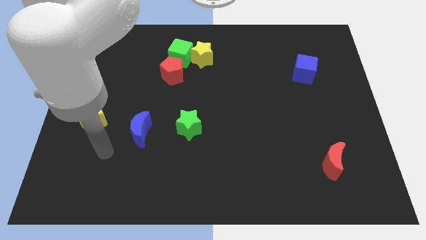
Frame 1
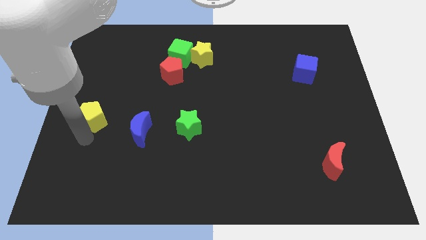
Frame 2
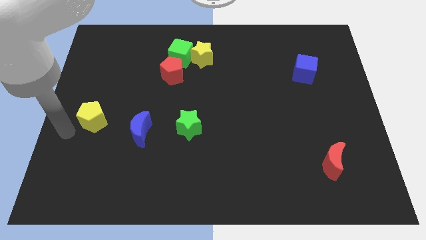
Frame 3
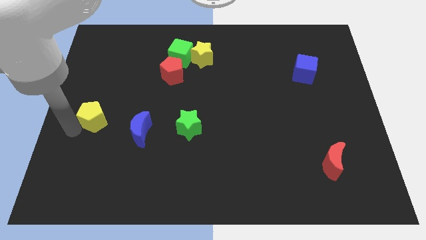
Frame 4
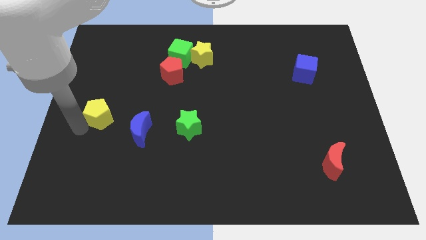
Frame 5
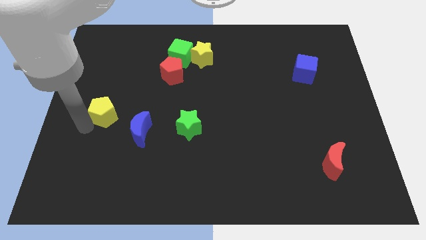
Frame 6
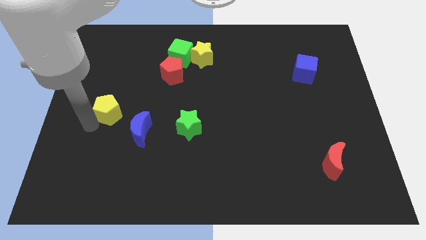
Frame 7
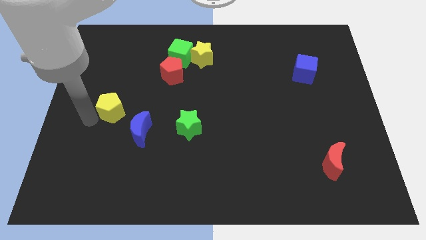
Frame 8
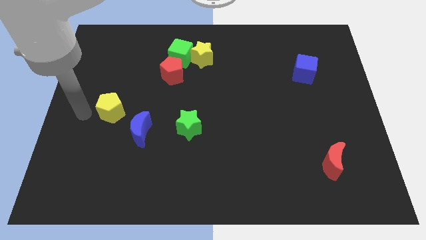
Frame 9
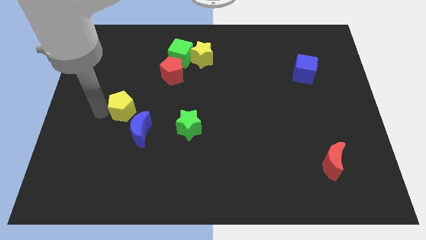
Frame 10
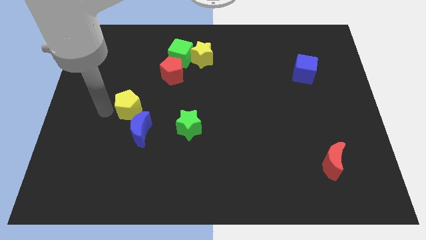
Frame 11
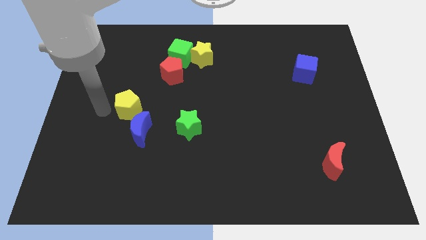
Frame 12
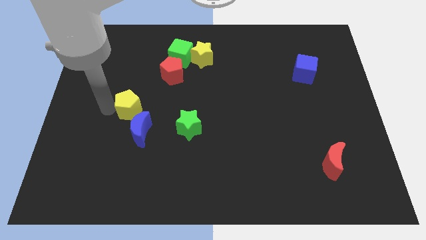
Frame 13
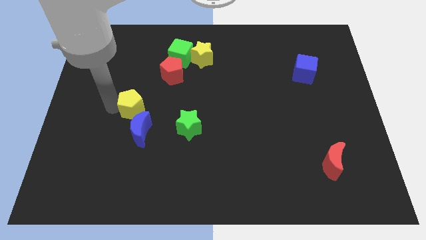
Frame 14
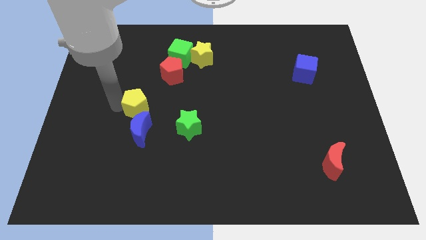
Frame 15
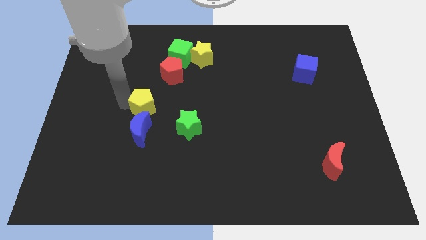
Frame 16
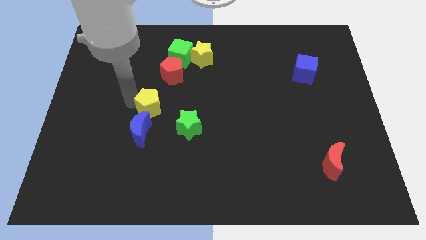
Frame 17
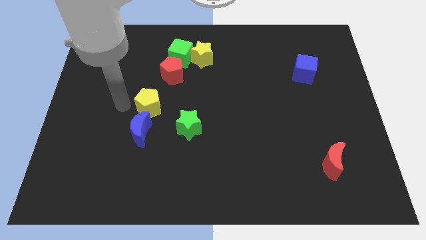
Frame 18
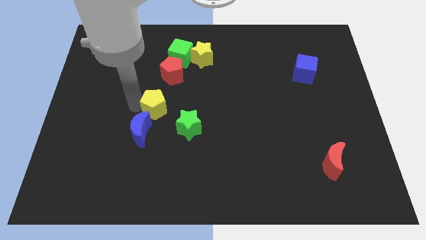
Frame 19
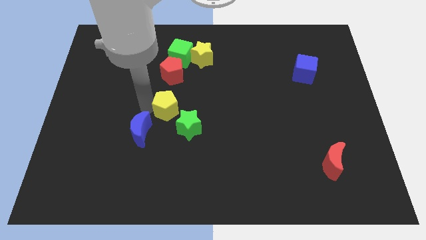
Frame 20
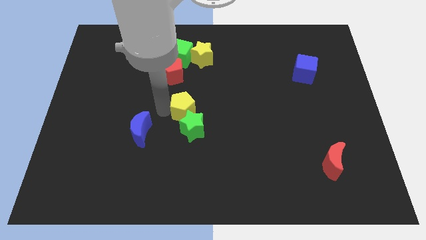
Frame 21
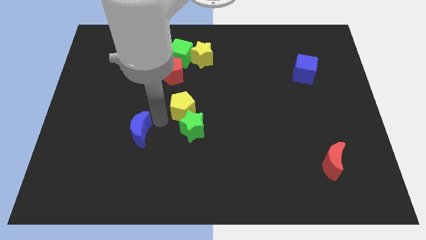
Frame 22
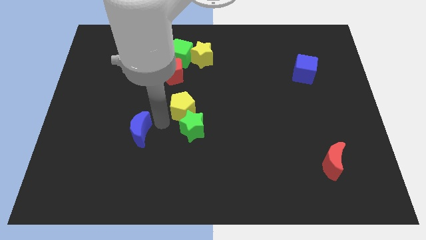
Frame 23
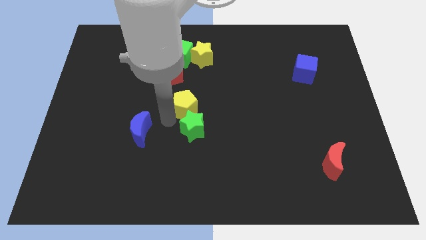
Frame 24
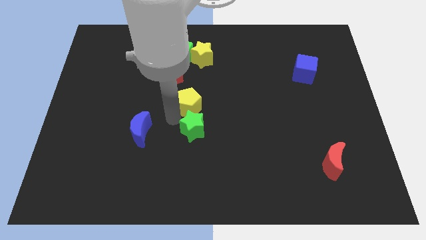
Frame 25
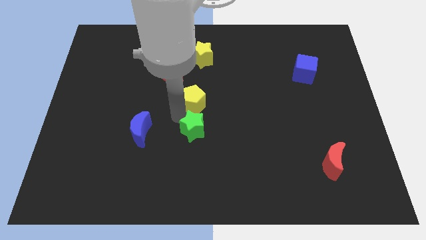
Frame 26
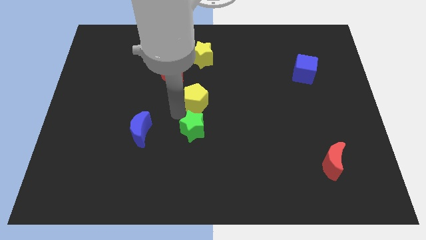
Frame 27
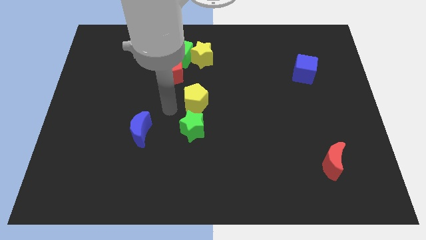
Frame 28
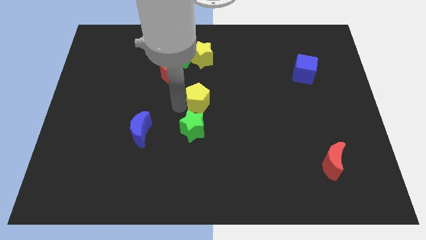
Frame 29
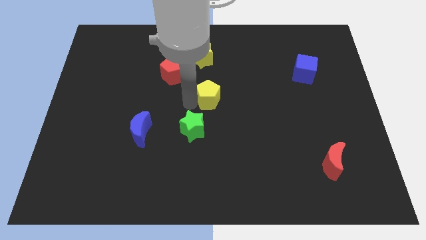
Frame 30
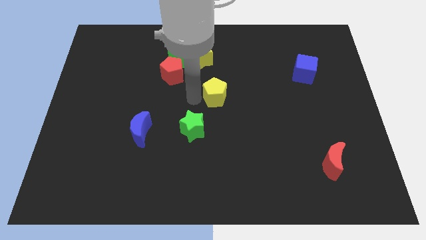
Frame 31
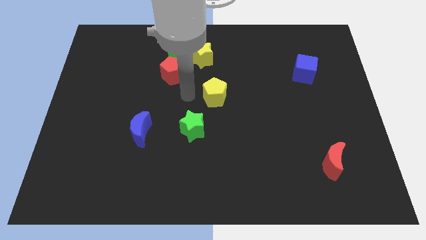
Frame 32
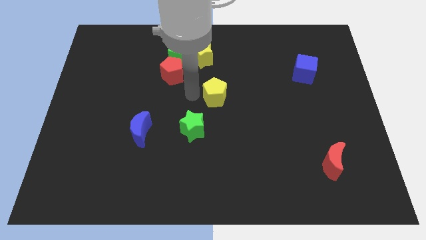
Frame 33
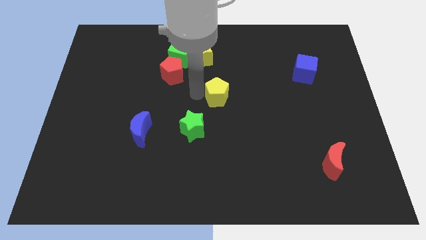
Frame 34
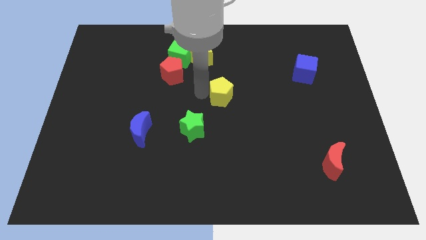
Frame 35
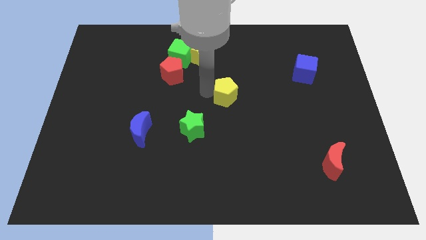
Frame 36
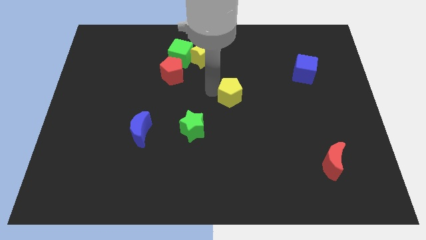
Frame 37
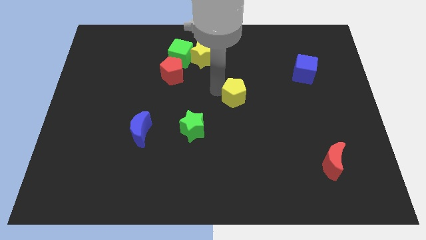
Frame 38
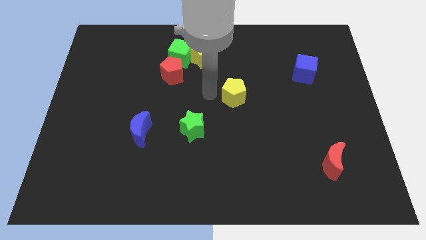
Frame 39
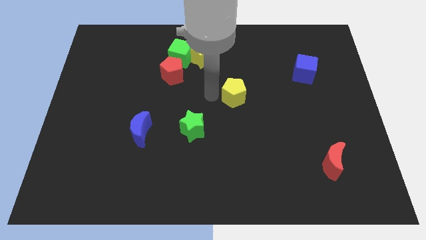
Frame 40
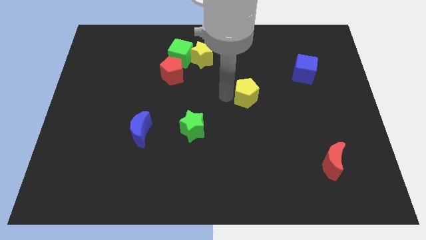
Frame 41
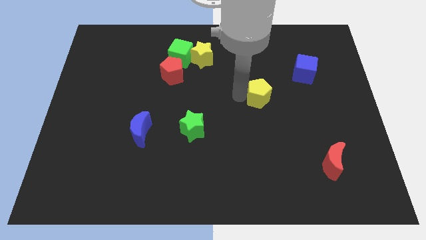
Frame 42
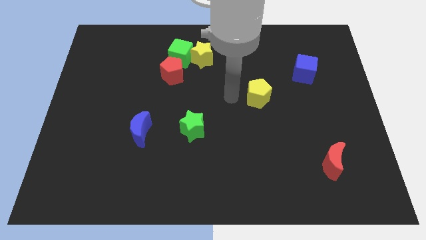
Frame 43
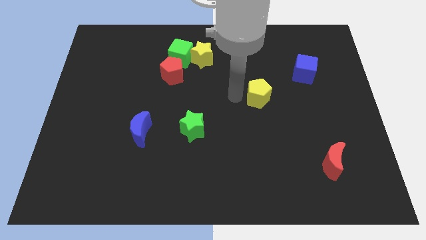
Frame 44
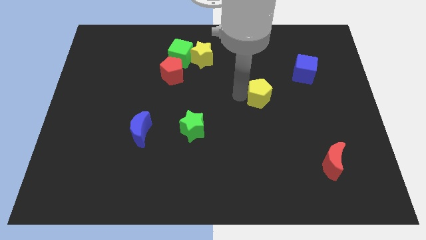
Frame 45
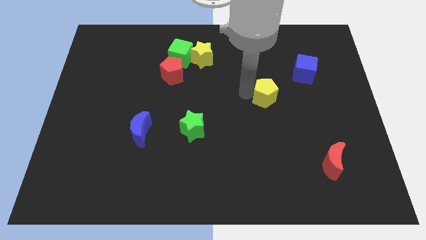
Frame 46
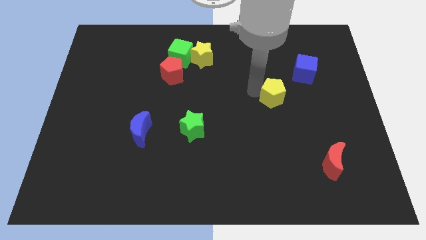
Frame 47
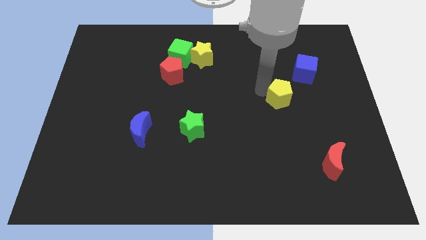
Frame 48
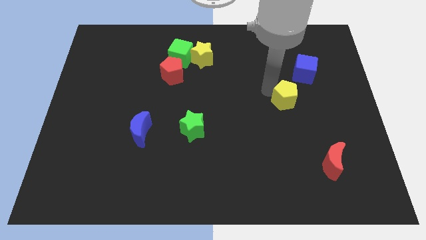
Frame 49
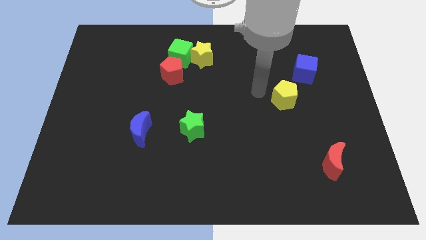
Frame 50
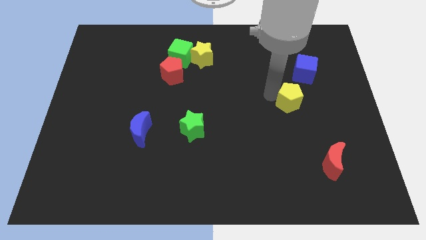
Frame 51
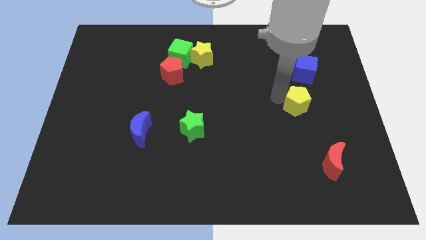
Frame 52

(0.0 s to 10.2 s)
put the yellow pentagon to the bottom side of the blue cube

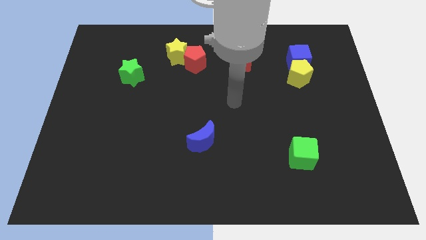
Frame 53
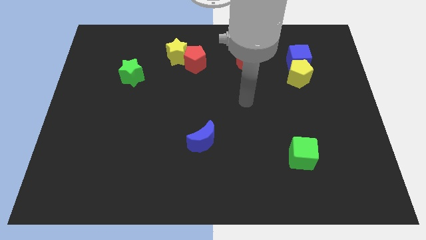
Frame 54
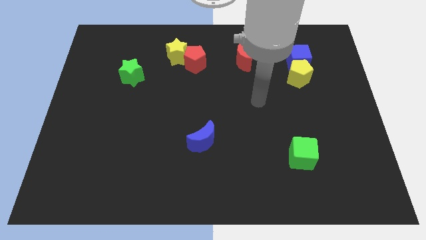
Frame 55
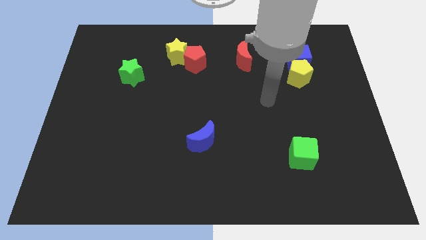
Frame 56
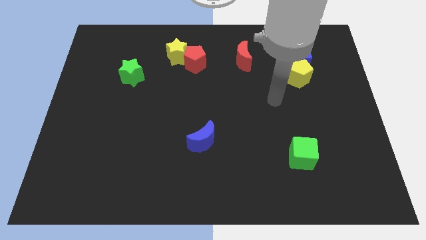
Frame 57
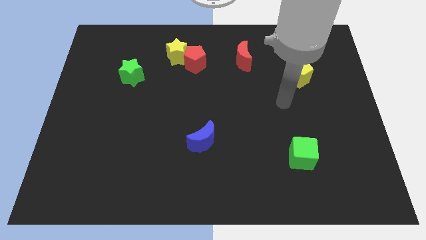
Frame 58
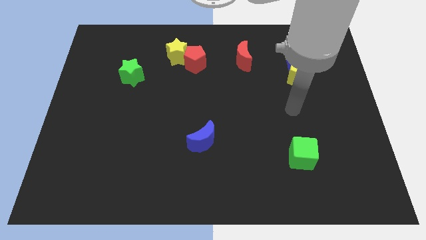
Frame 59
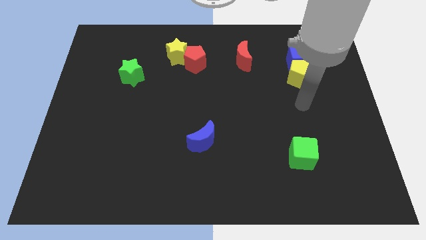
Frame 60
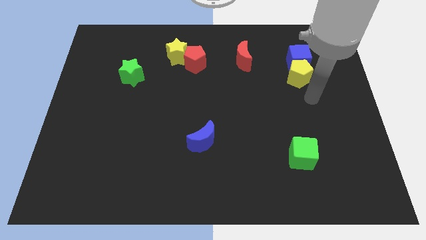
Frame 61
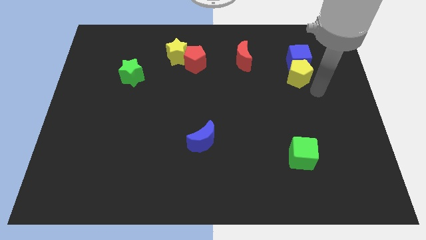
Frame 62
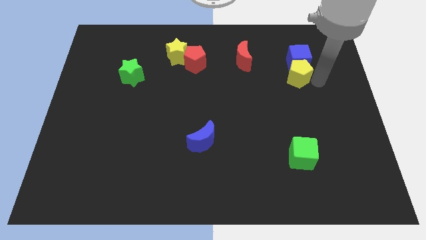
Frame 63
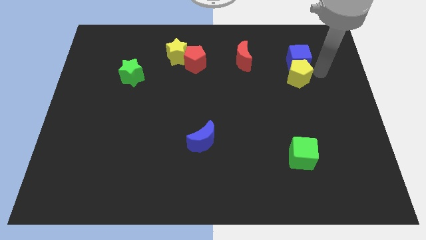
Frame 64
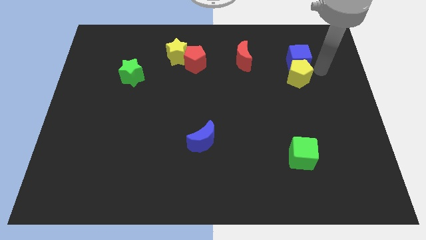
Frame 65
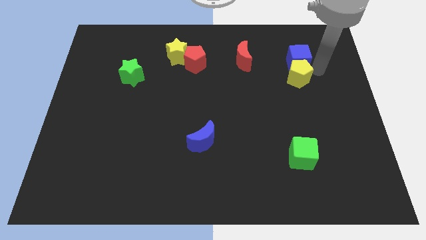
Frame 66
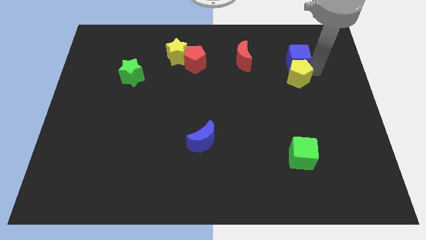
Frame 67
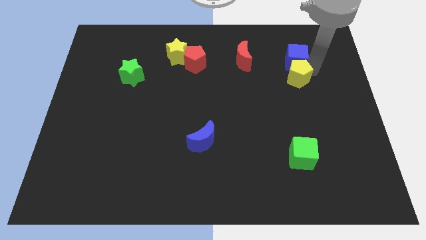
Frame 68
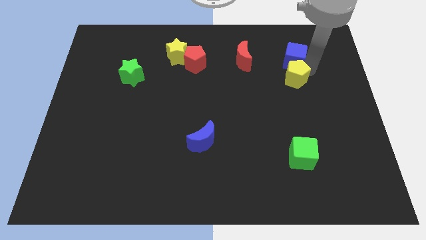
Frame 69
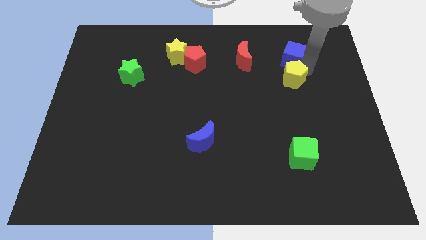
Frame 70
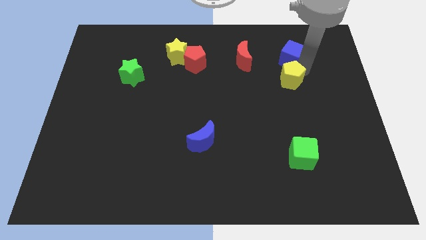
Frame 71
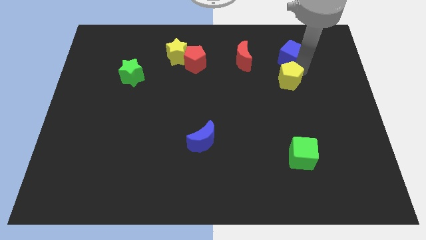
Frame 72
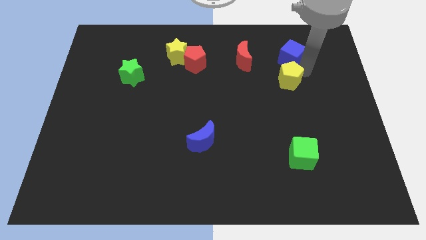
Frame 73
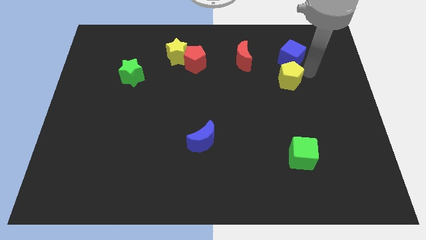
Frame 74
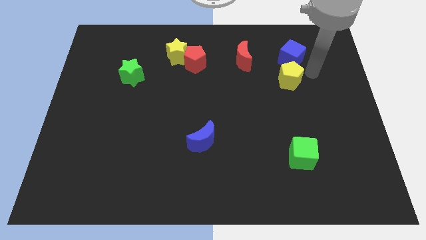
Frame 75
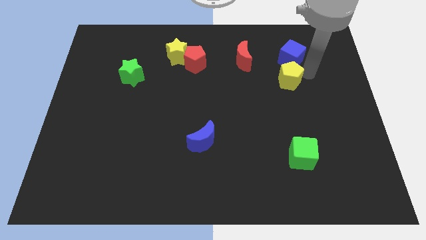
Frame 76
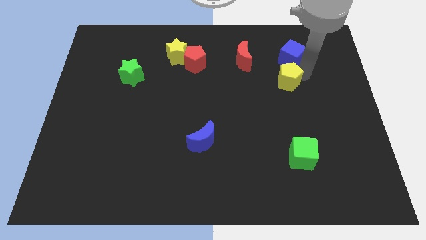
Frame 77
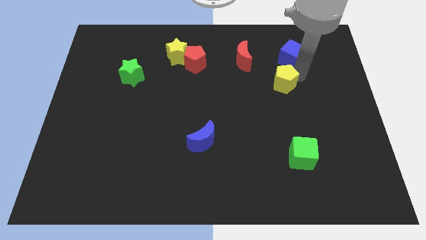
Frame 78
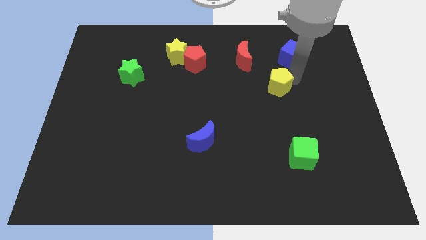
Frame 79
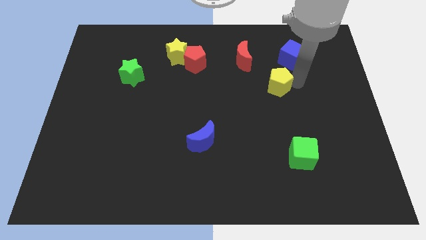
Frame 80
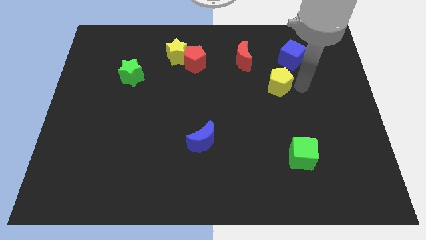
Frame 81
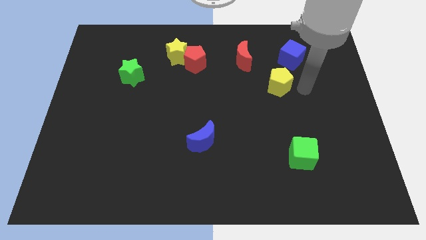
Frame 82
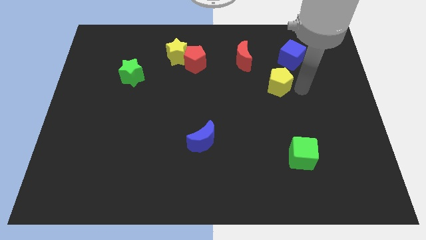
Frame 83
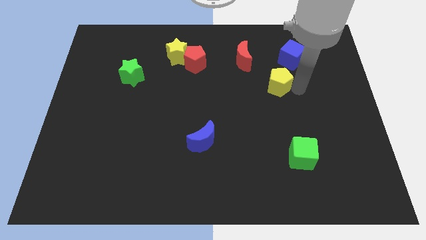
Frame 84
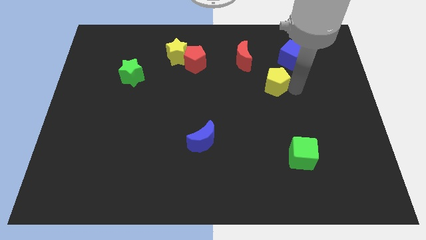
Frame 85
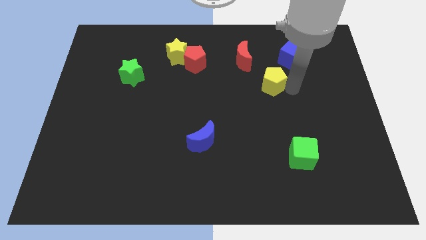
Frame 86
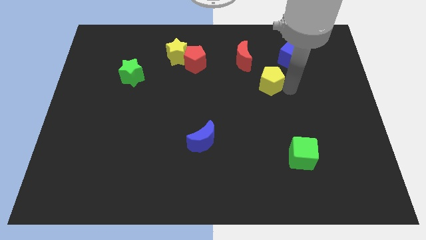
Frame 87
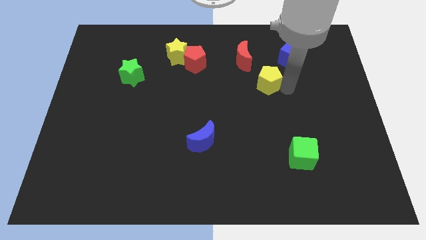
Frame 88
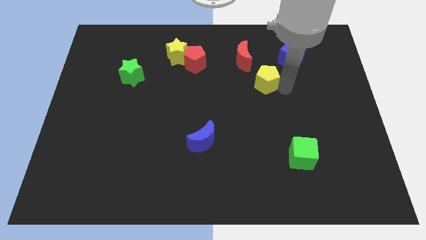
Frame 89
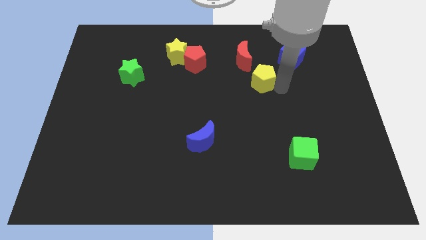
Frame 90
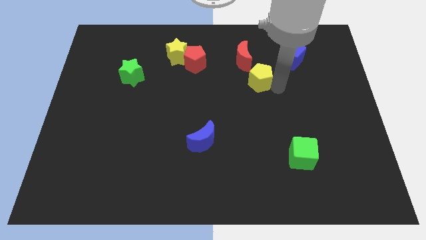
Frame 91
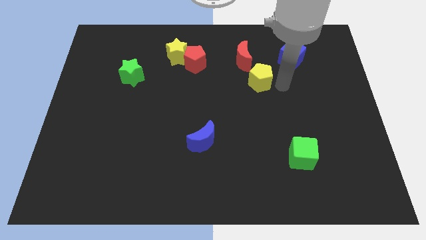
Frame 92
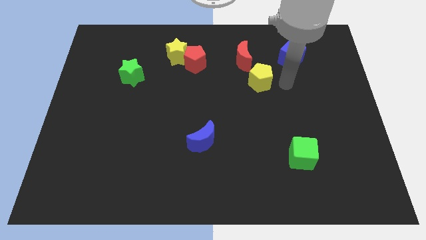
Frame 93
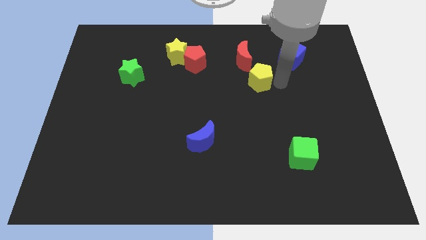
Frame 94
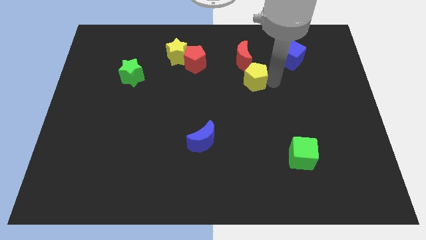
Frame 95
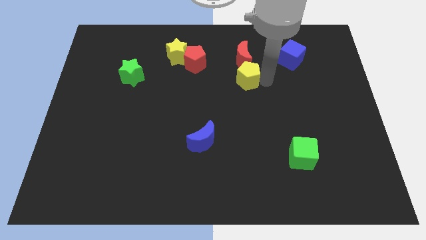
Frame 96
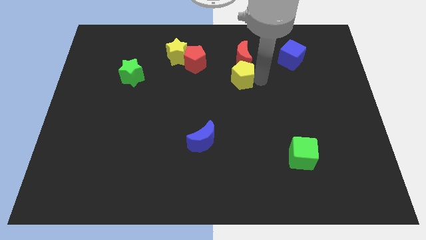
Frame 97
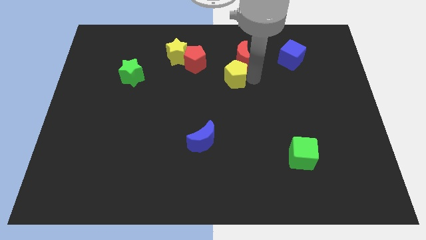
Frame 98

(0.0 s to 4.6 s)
slide the yellow pentagon to the bottom right of the red pentagon
